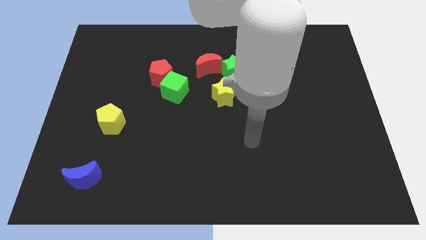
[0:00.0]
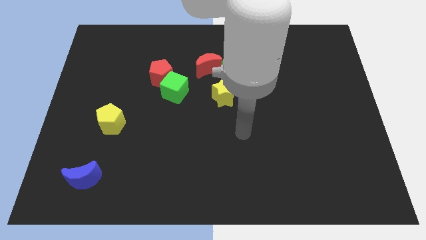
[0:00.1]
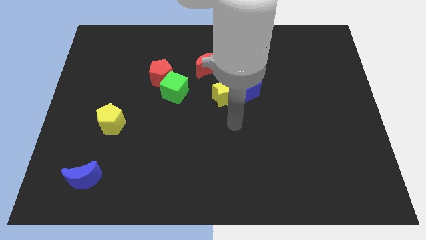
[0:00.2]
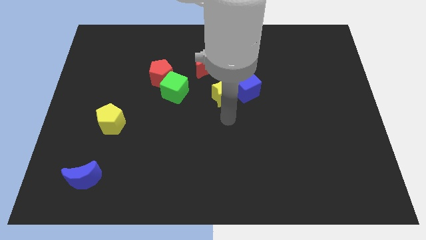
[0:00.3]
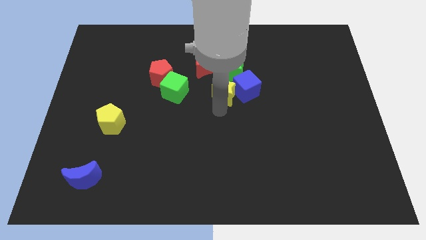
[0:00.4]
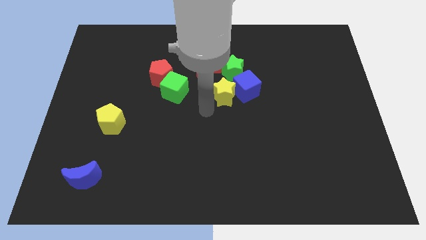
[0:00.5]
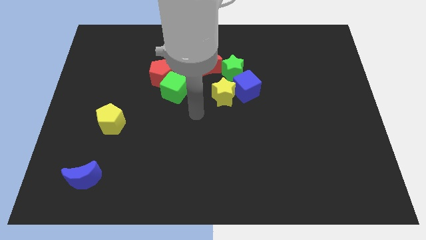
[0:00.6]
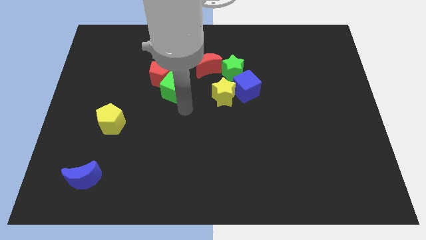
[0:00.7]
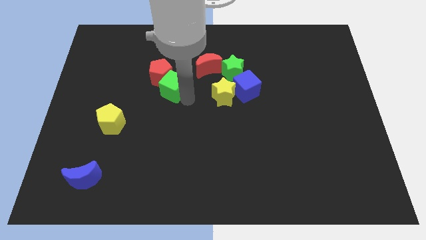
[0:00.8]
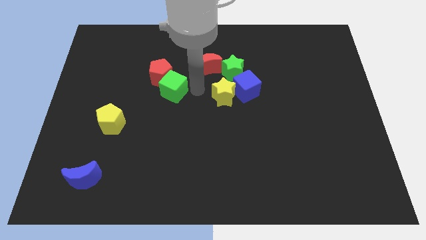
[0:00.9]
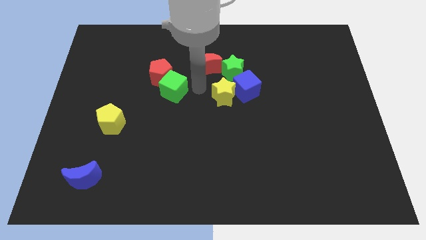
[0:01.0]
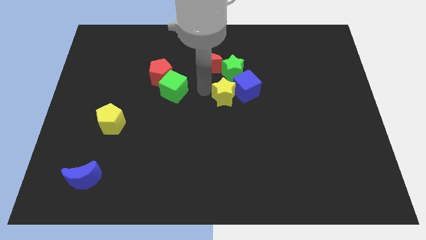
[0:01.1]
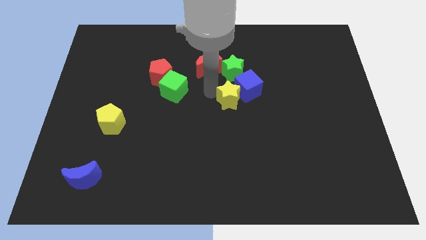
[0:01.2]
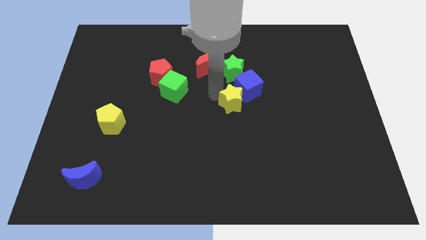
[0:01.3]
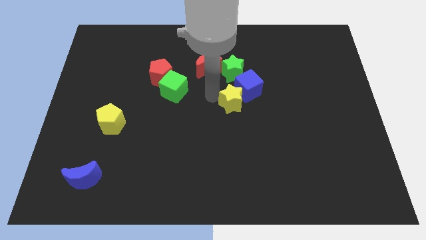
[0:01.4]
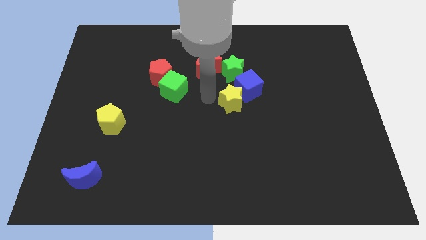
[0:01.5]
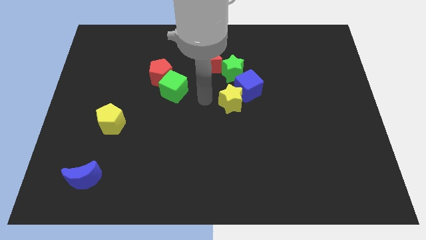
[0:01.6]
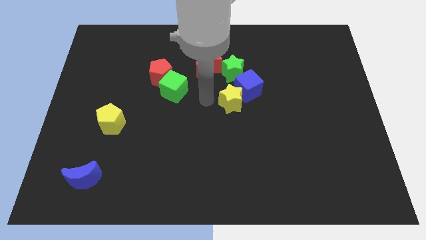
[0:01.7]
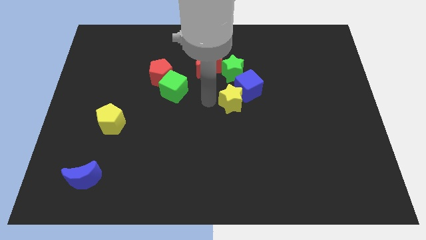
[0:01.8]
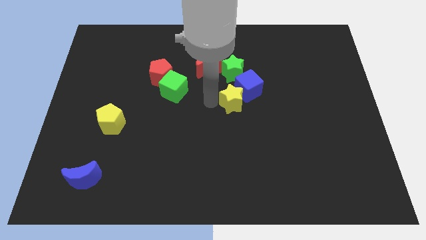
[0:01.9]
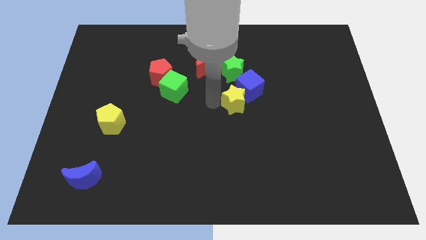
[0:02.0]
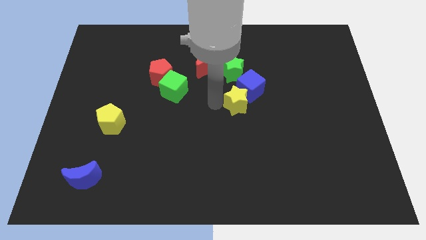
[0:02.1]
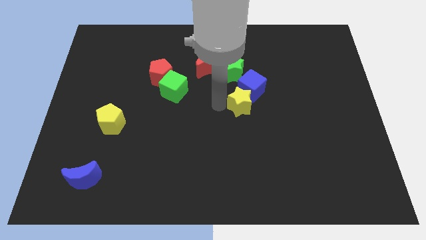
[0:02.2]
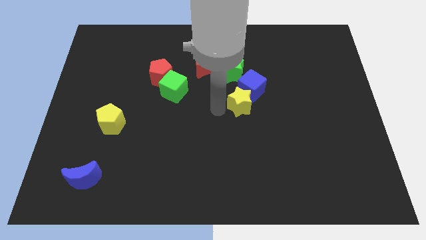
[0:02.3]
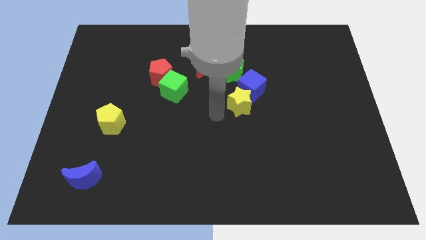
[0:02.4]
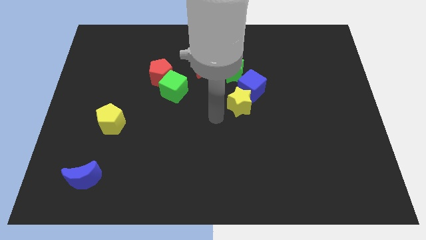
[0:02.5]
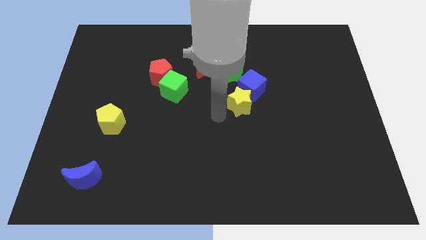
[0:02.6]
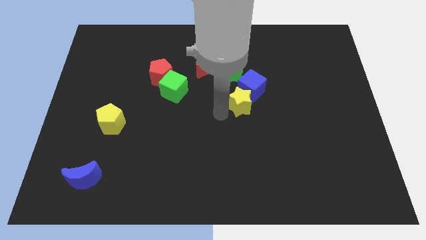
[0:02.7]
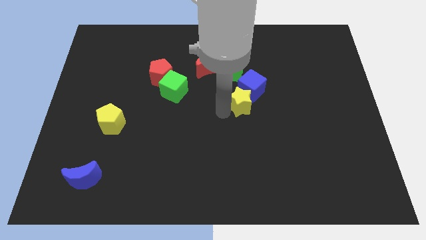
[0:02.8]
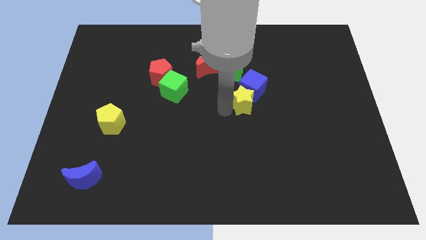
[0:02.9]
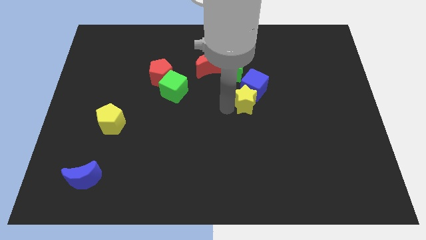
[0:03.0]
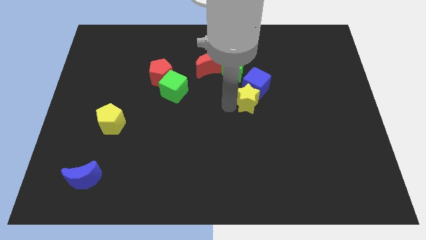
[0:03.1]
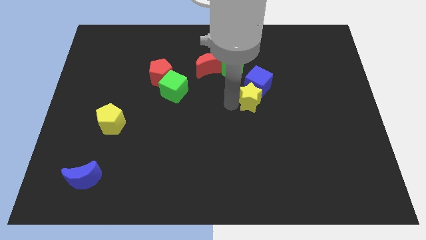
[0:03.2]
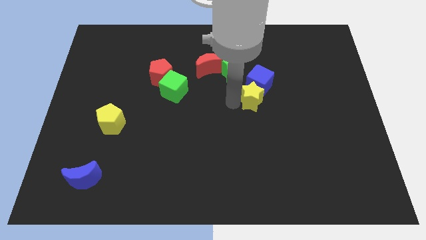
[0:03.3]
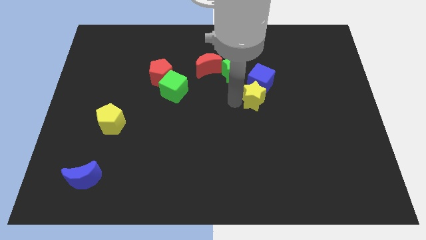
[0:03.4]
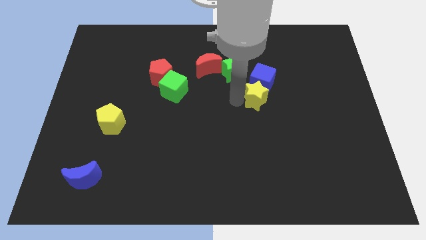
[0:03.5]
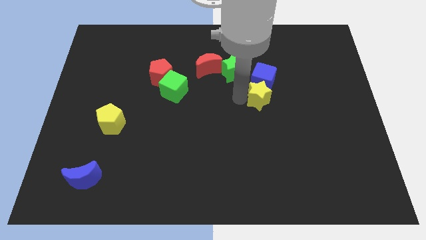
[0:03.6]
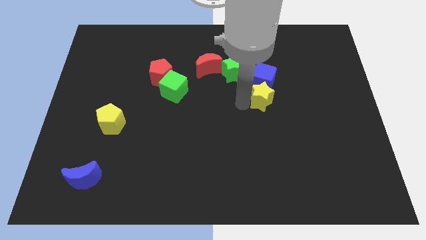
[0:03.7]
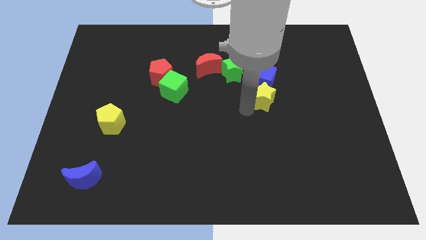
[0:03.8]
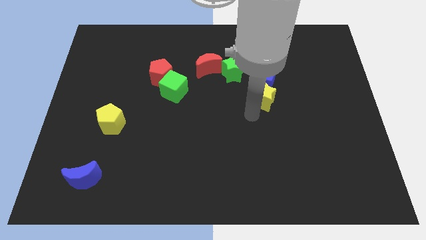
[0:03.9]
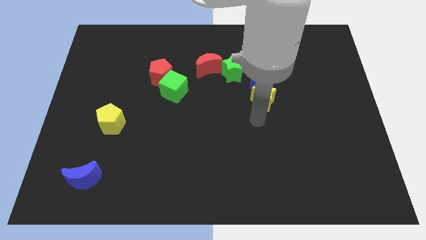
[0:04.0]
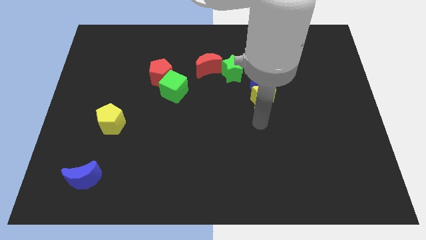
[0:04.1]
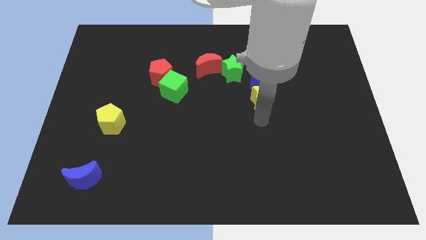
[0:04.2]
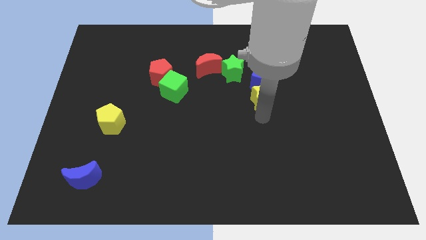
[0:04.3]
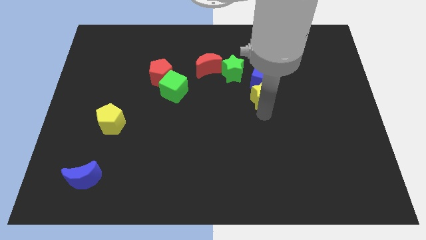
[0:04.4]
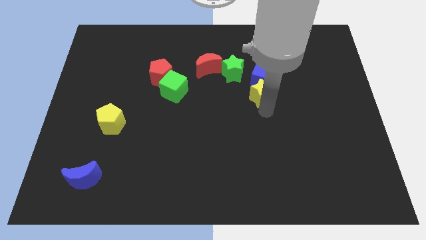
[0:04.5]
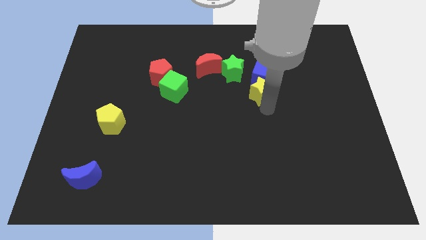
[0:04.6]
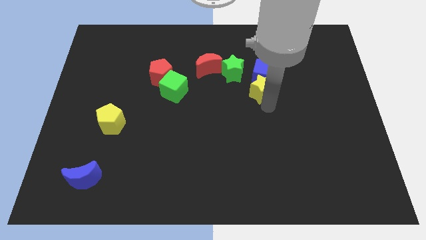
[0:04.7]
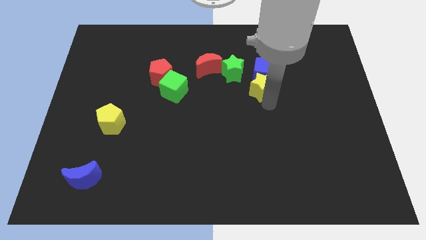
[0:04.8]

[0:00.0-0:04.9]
slide the yellow star somewhat upwards and right

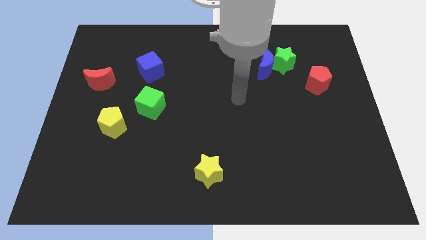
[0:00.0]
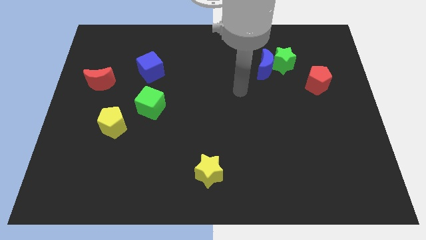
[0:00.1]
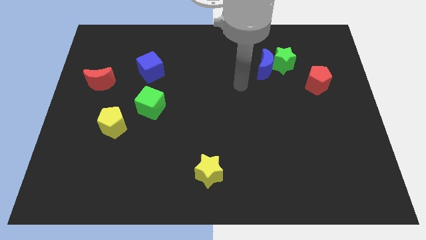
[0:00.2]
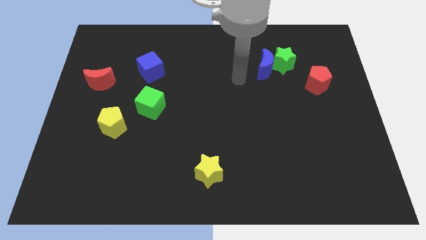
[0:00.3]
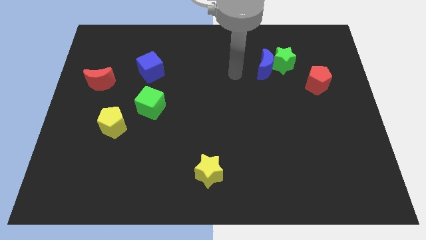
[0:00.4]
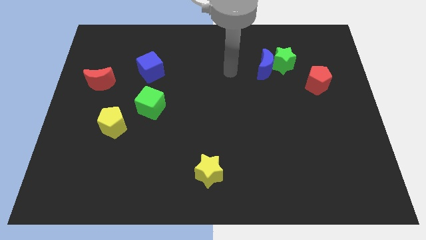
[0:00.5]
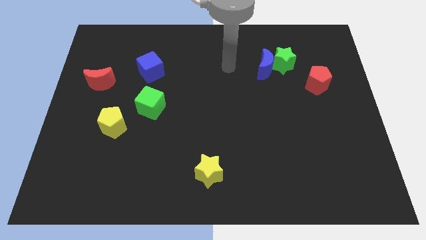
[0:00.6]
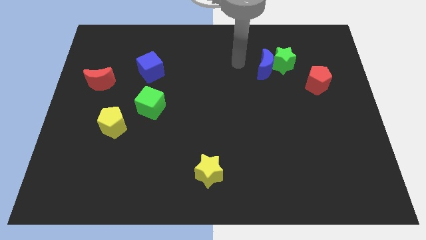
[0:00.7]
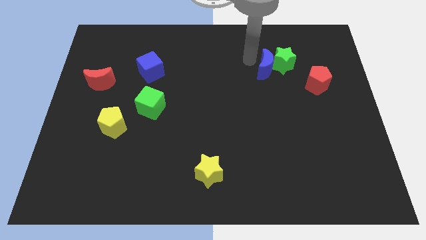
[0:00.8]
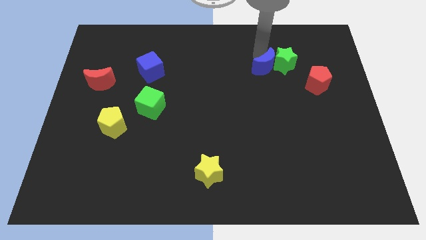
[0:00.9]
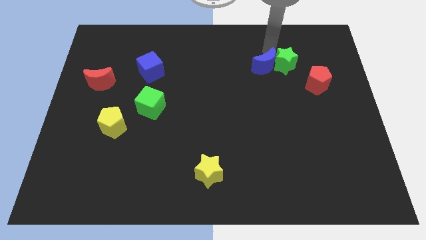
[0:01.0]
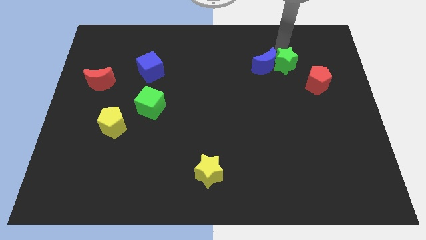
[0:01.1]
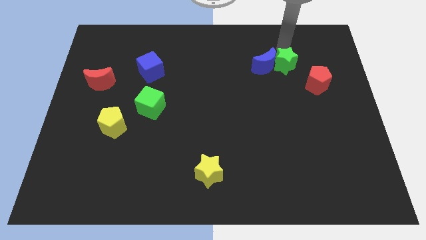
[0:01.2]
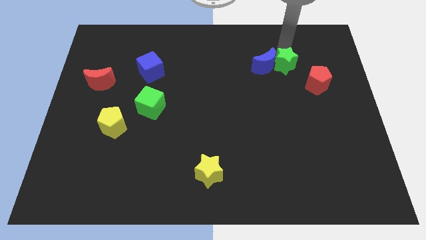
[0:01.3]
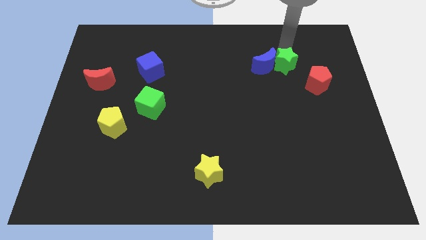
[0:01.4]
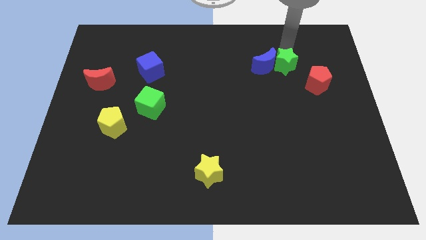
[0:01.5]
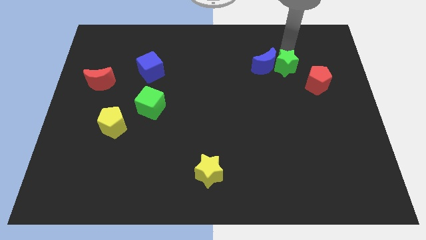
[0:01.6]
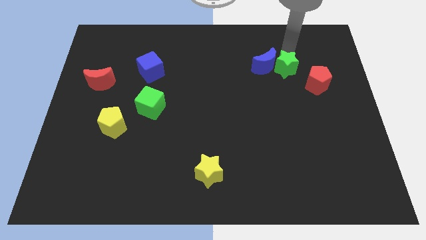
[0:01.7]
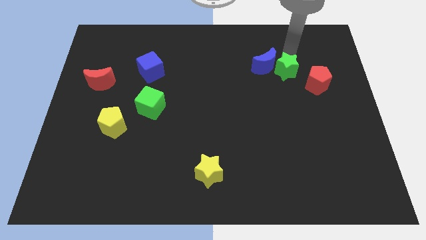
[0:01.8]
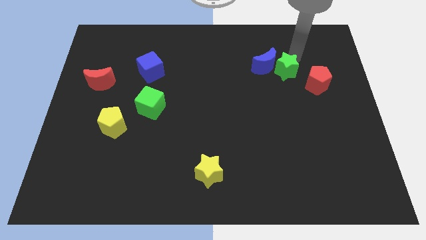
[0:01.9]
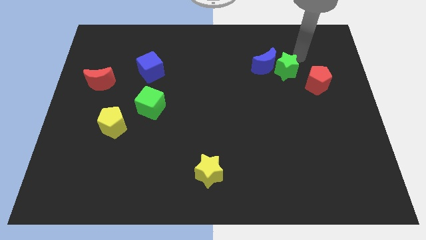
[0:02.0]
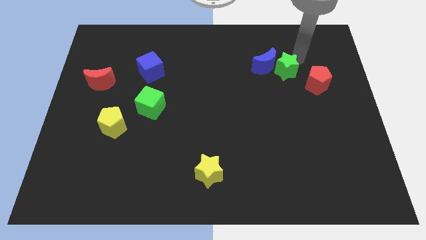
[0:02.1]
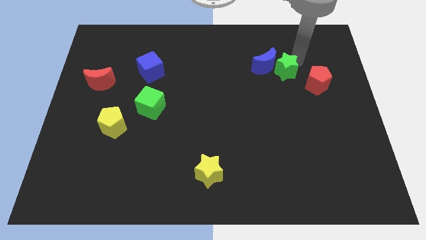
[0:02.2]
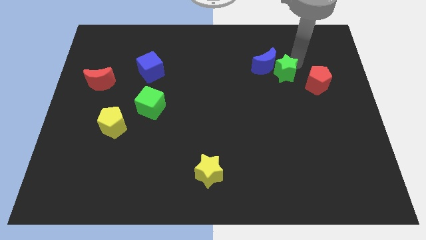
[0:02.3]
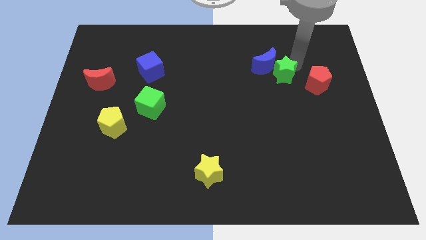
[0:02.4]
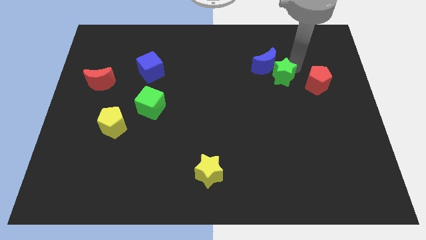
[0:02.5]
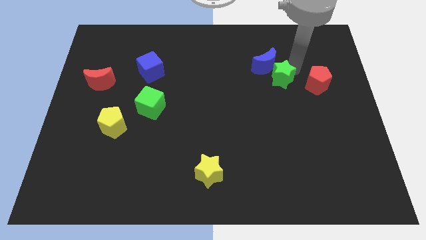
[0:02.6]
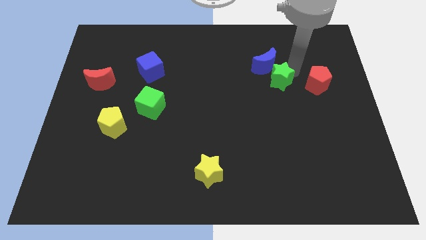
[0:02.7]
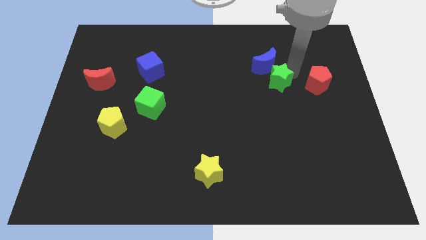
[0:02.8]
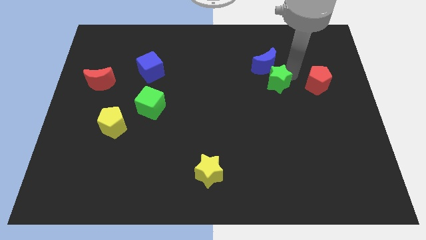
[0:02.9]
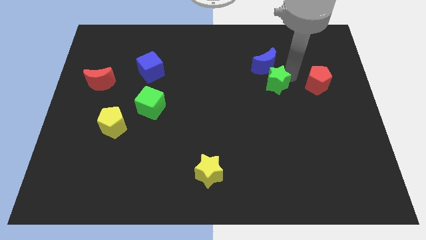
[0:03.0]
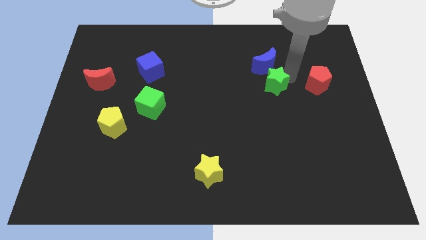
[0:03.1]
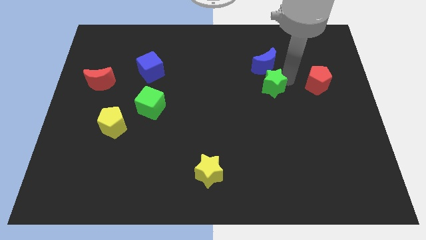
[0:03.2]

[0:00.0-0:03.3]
slide the green star a bit downwards and left diagonally
